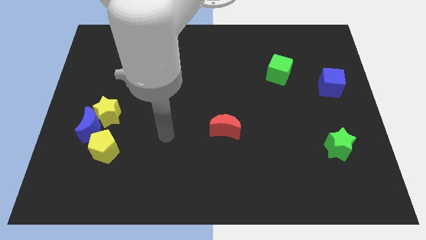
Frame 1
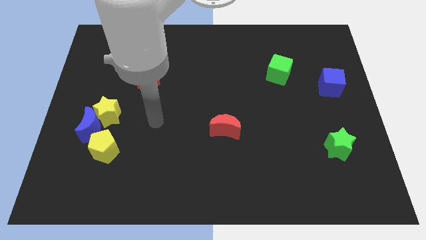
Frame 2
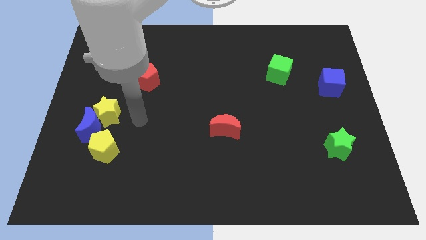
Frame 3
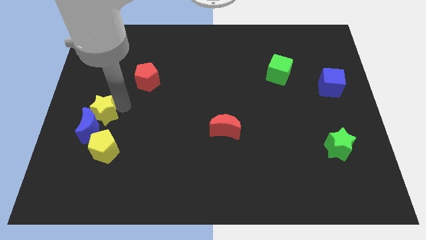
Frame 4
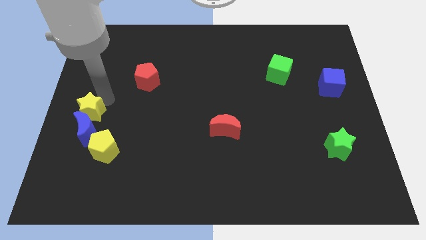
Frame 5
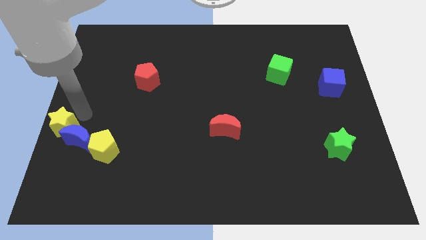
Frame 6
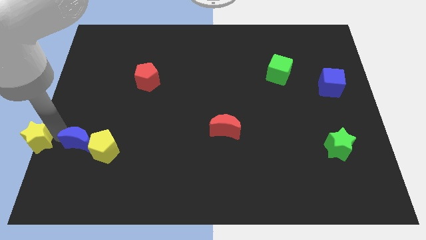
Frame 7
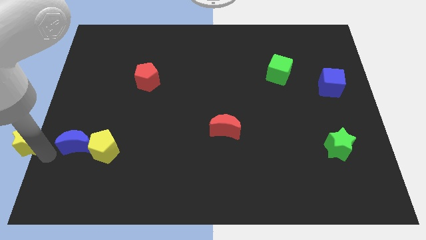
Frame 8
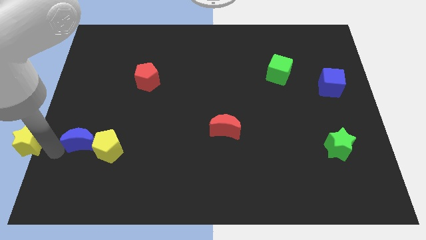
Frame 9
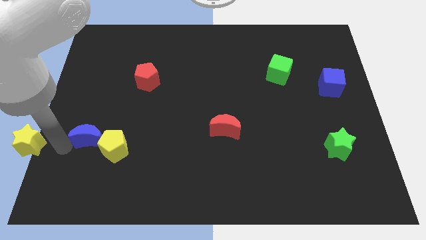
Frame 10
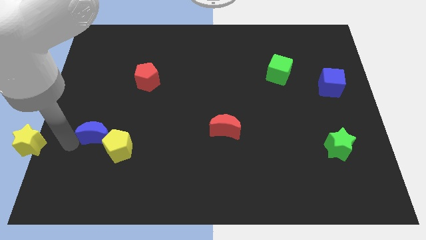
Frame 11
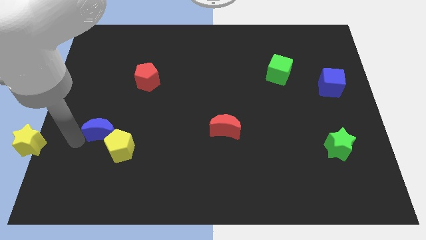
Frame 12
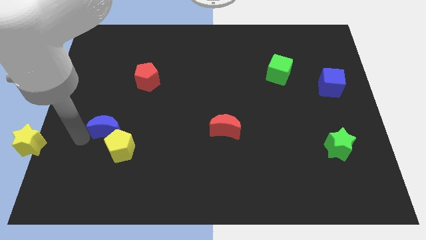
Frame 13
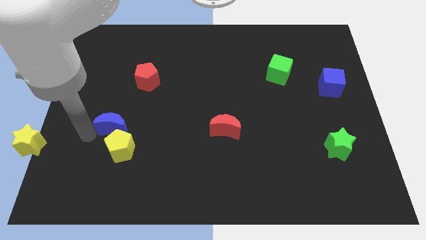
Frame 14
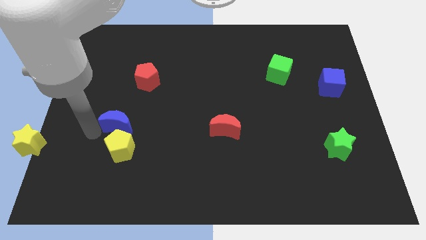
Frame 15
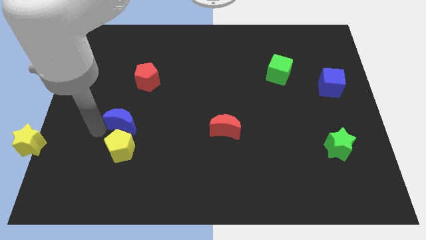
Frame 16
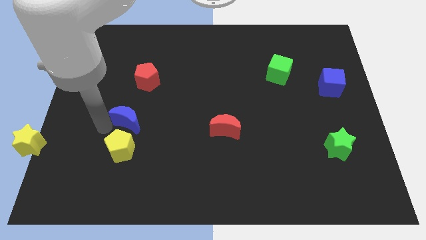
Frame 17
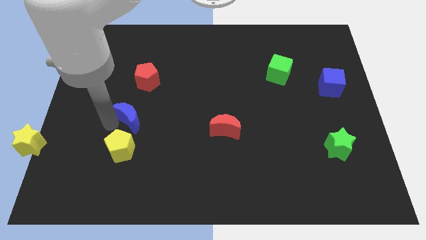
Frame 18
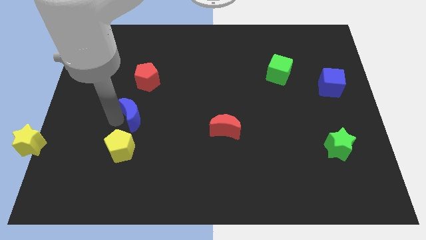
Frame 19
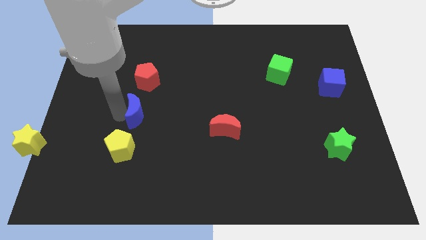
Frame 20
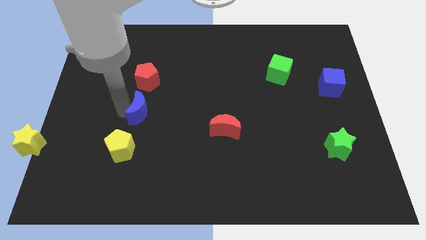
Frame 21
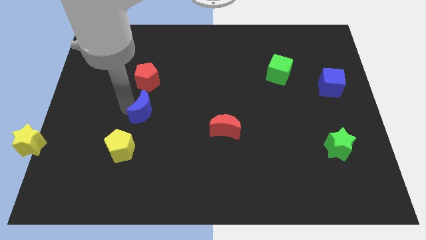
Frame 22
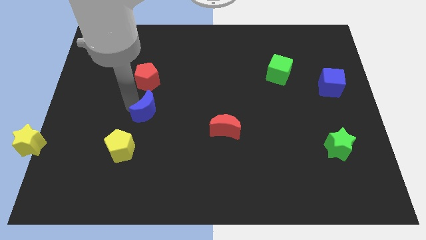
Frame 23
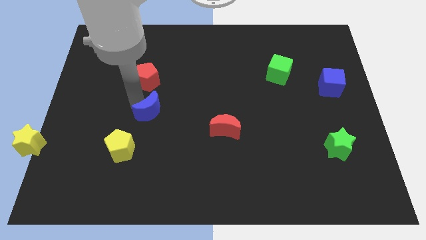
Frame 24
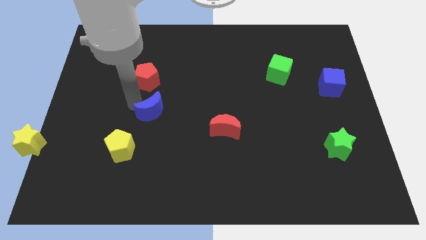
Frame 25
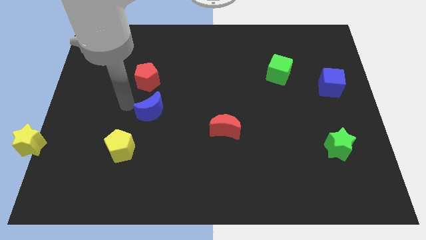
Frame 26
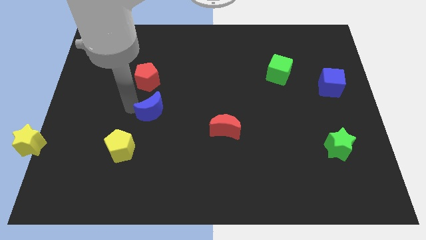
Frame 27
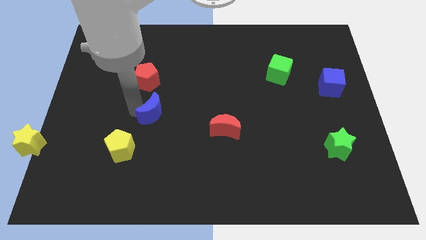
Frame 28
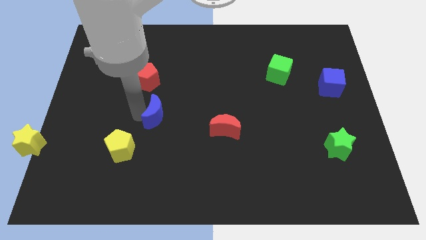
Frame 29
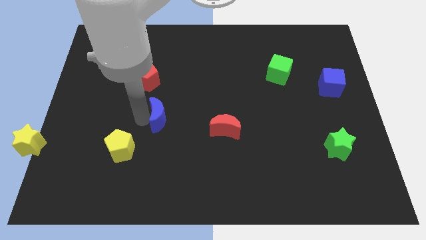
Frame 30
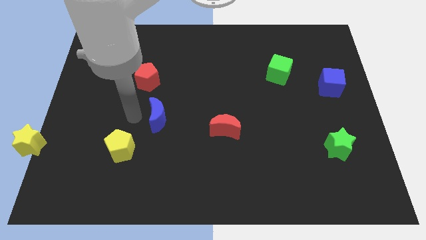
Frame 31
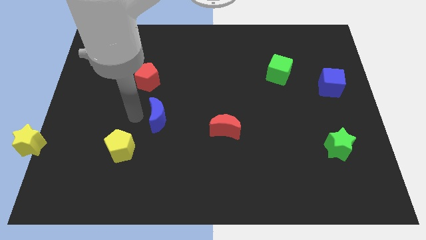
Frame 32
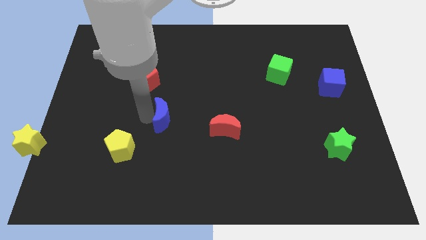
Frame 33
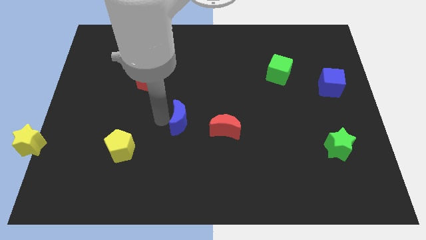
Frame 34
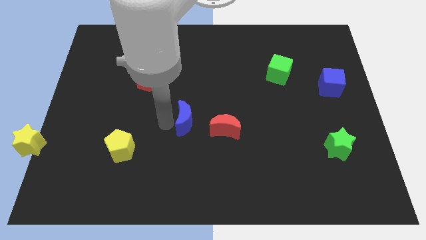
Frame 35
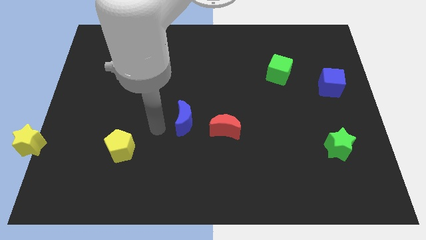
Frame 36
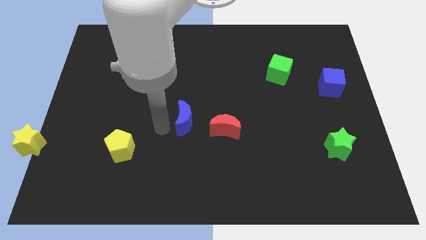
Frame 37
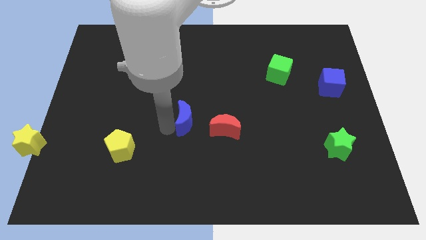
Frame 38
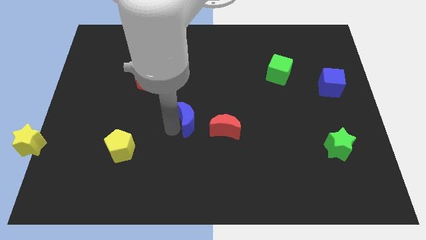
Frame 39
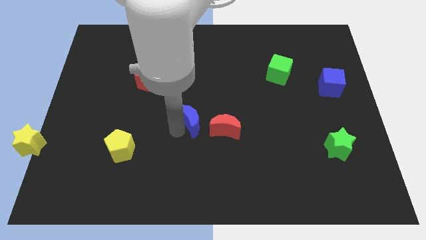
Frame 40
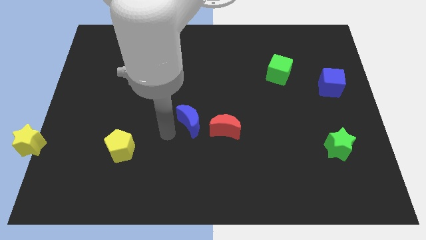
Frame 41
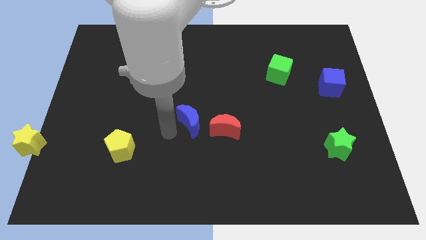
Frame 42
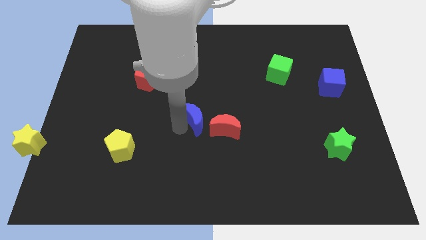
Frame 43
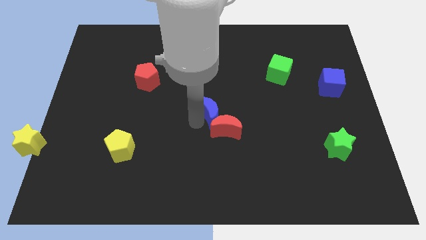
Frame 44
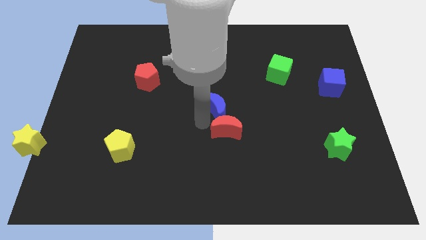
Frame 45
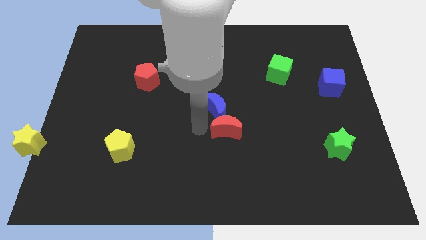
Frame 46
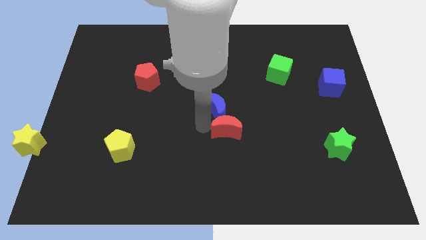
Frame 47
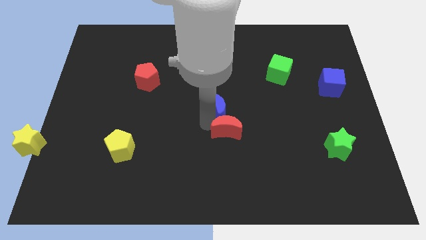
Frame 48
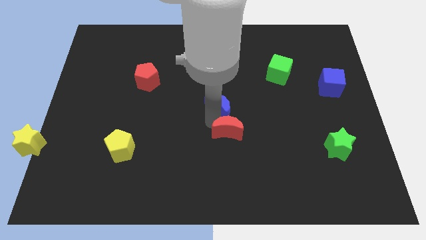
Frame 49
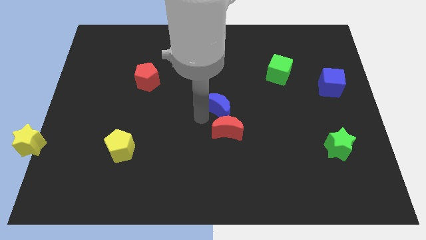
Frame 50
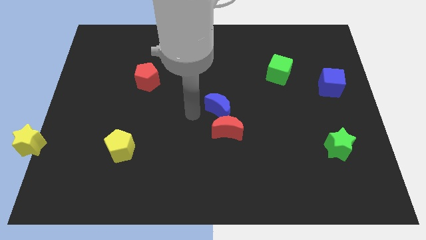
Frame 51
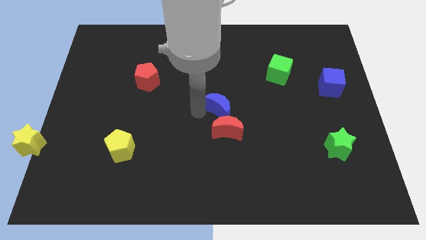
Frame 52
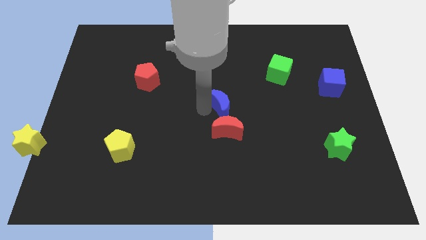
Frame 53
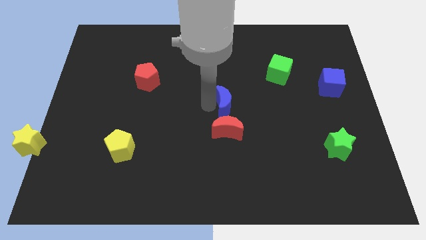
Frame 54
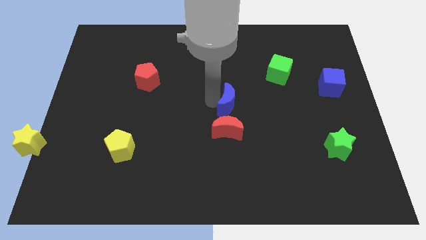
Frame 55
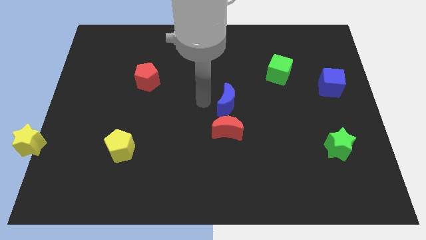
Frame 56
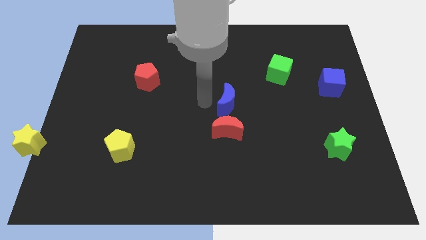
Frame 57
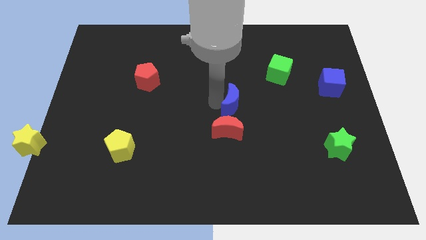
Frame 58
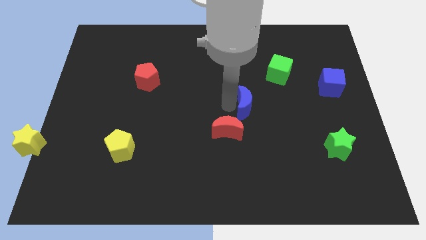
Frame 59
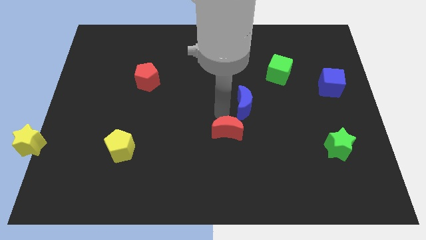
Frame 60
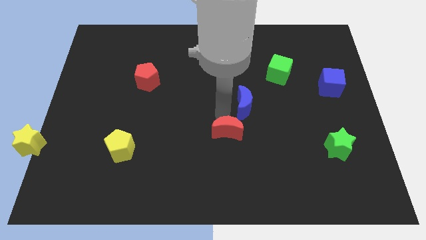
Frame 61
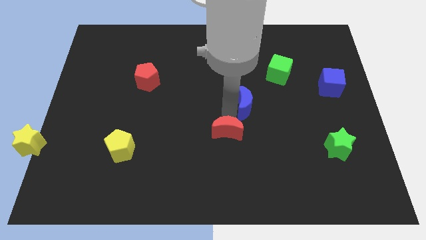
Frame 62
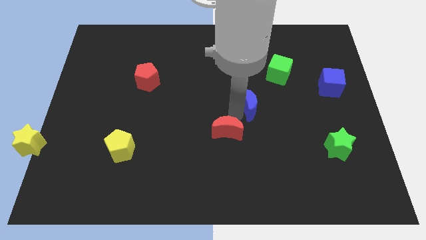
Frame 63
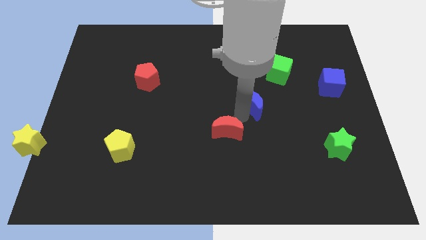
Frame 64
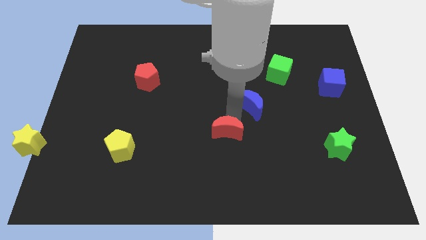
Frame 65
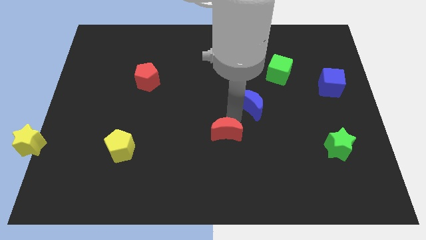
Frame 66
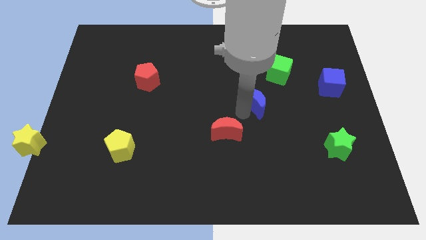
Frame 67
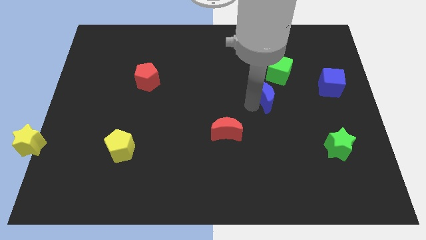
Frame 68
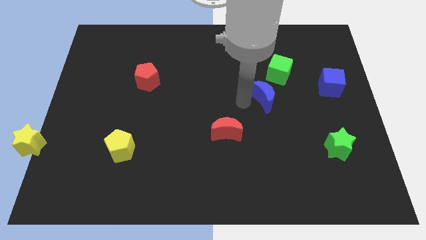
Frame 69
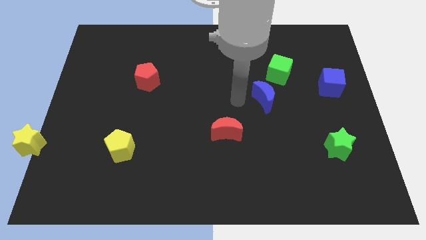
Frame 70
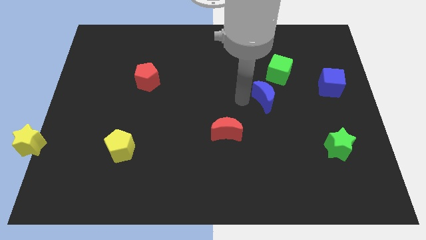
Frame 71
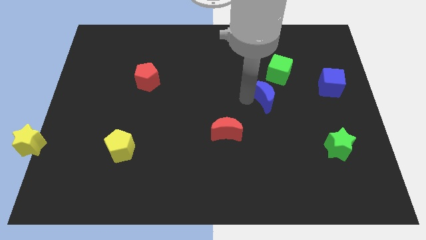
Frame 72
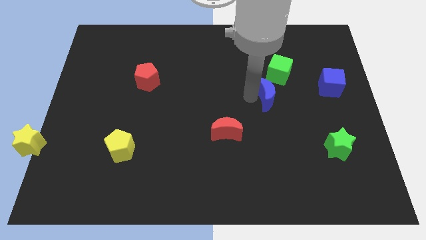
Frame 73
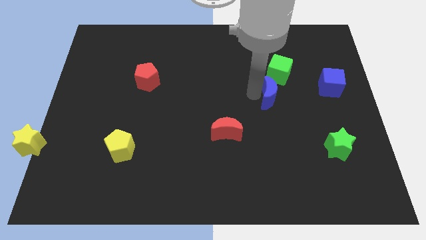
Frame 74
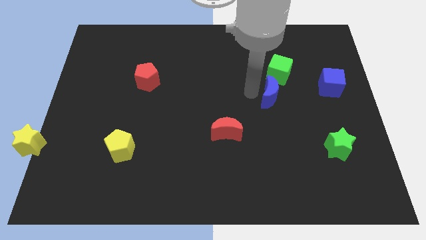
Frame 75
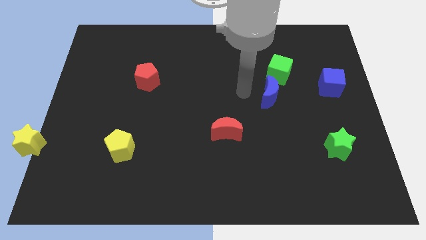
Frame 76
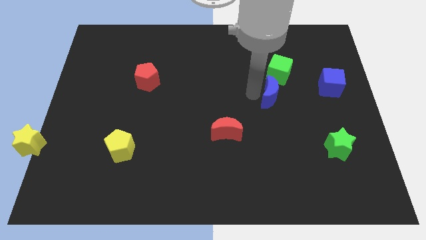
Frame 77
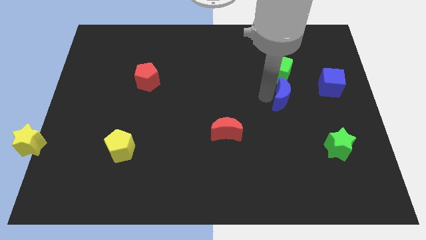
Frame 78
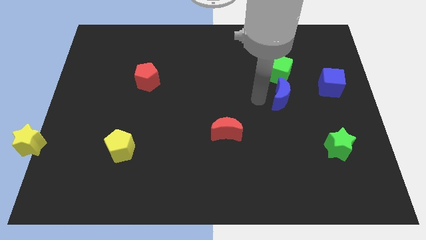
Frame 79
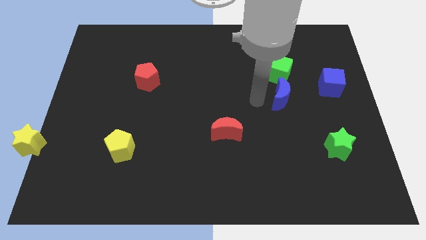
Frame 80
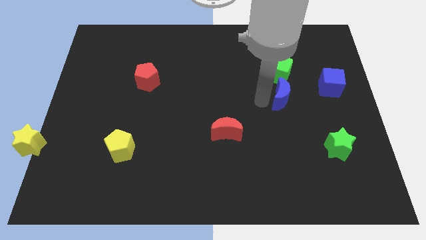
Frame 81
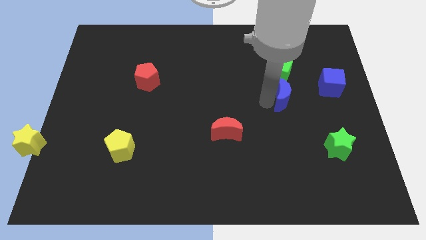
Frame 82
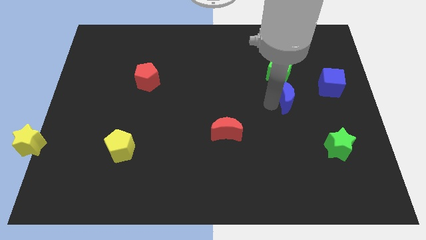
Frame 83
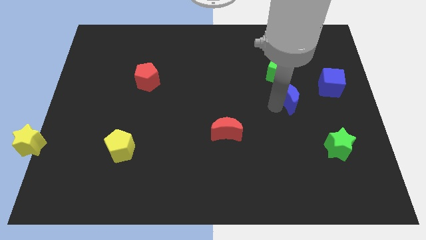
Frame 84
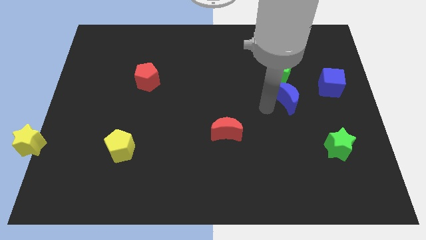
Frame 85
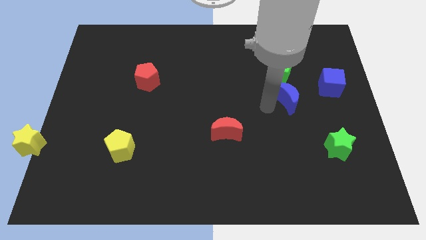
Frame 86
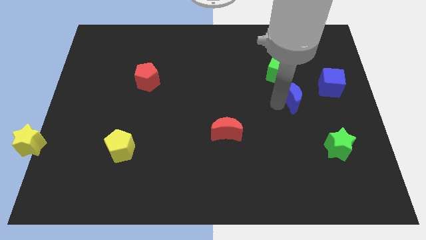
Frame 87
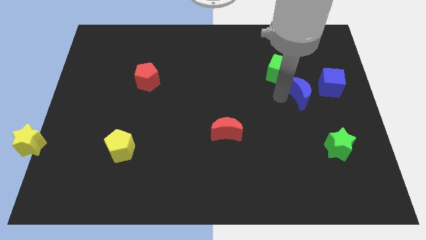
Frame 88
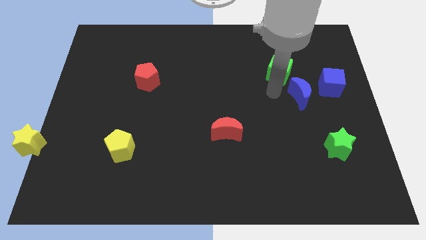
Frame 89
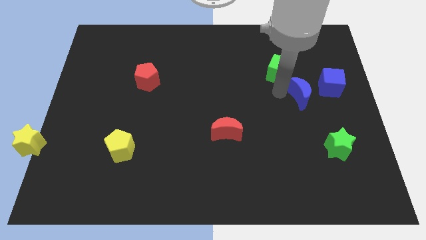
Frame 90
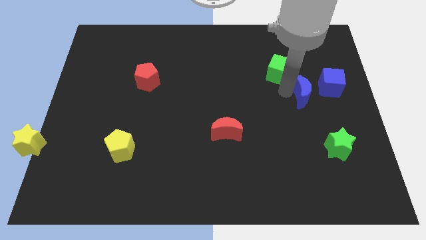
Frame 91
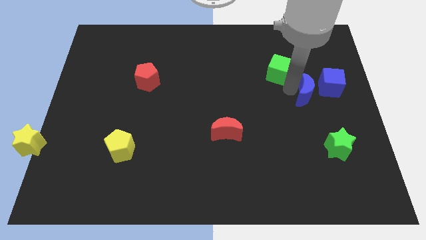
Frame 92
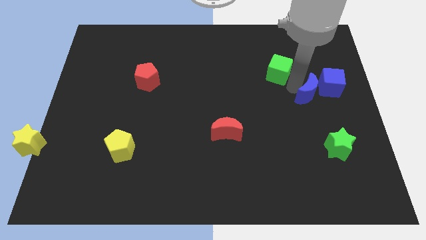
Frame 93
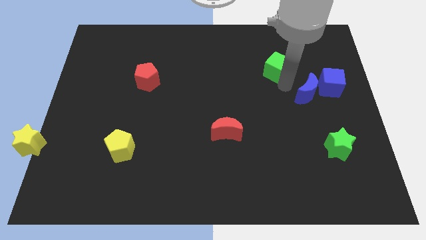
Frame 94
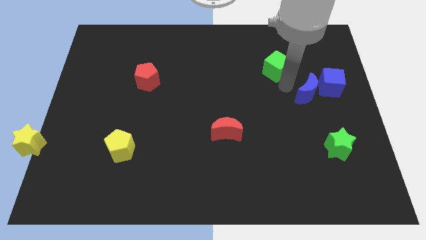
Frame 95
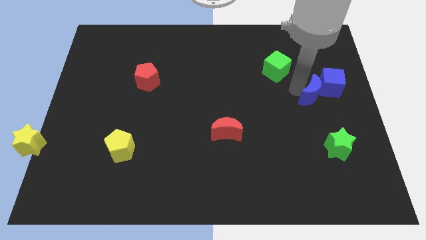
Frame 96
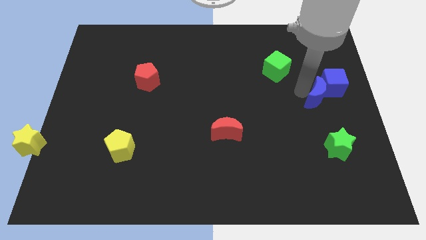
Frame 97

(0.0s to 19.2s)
push the blue moon to the right side
